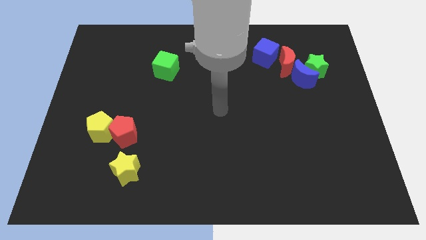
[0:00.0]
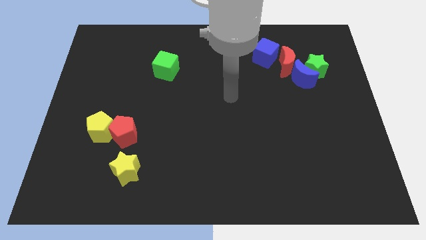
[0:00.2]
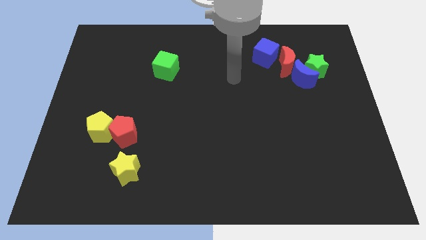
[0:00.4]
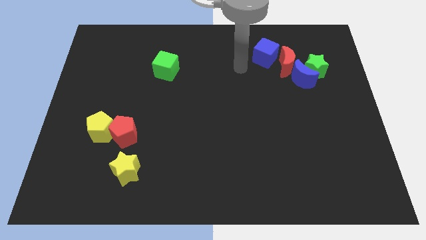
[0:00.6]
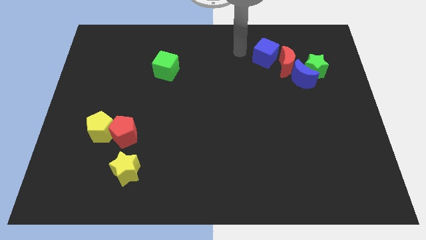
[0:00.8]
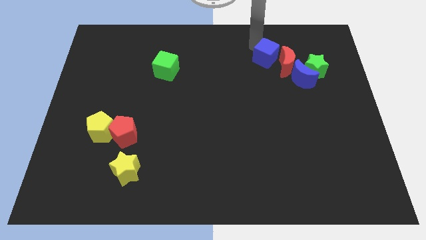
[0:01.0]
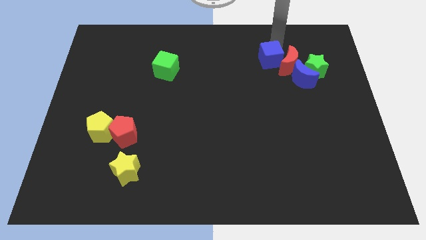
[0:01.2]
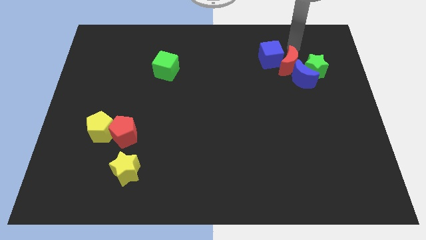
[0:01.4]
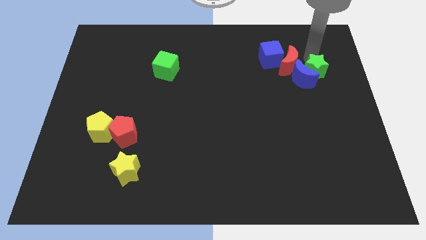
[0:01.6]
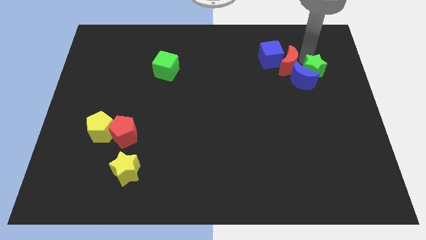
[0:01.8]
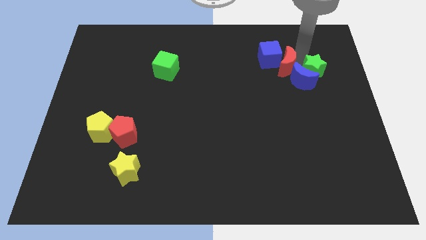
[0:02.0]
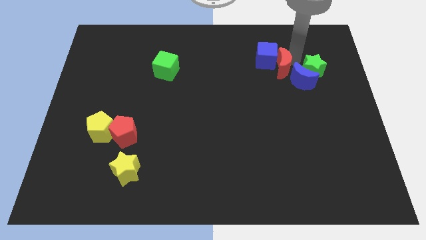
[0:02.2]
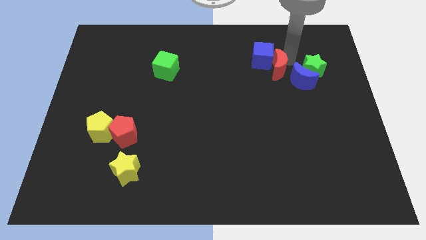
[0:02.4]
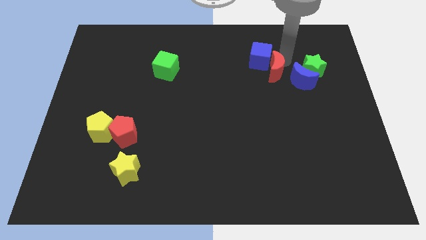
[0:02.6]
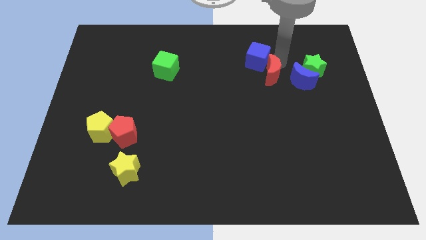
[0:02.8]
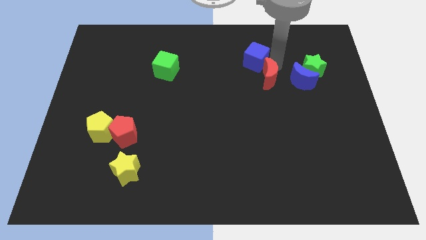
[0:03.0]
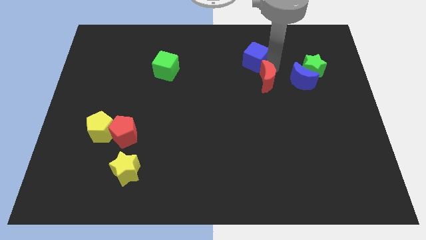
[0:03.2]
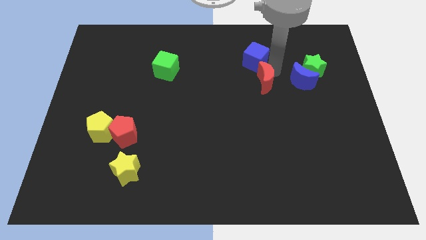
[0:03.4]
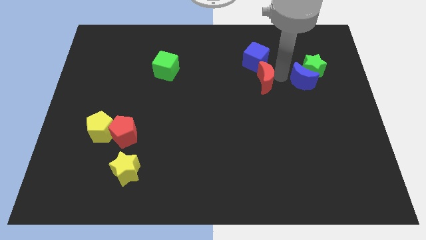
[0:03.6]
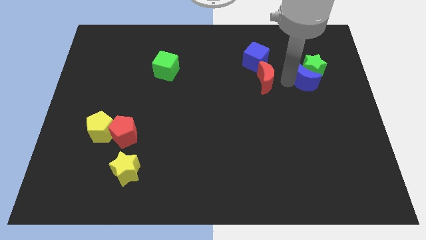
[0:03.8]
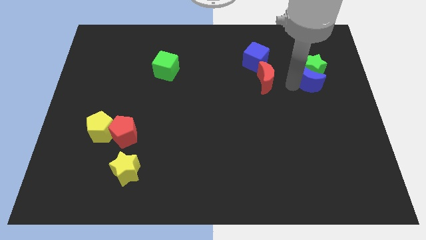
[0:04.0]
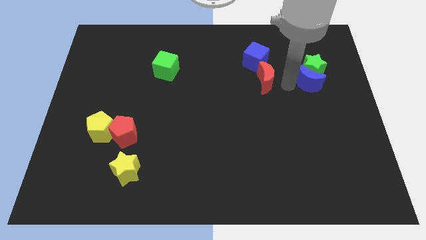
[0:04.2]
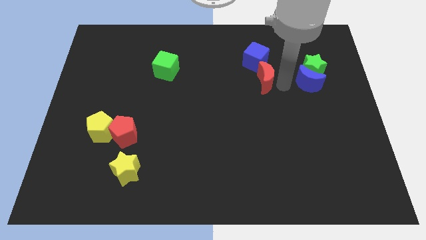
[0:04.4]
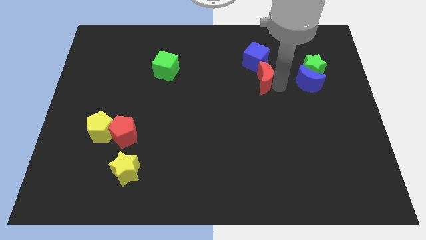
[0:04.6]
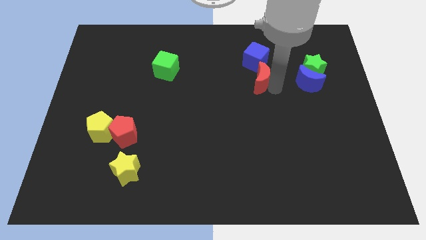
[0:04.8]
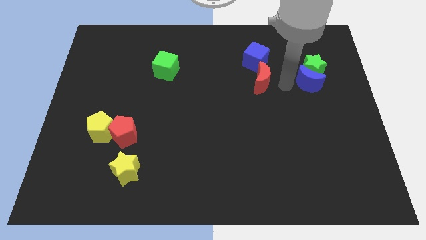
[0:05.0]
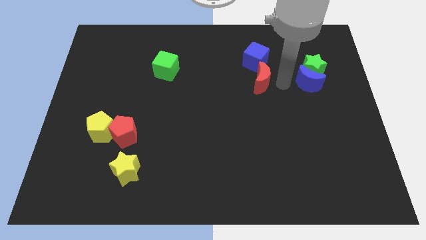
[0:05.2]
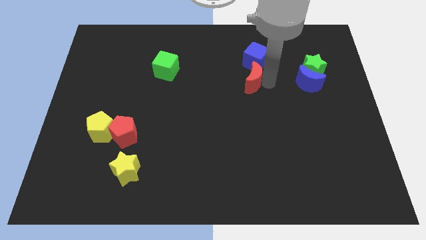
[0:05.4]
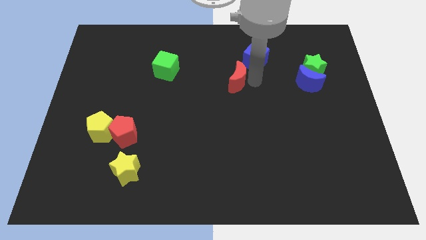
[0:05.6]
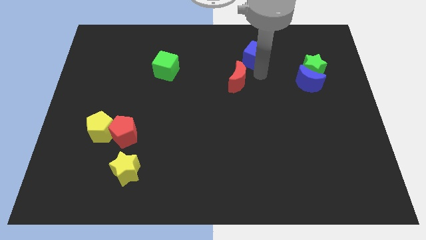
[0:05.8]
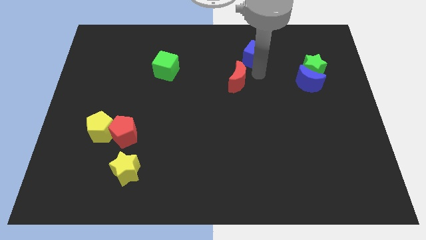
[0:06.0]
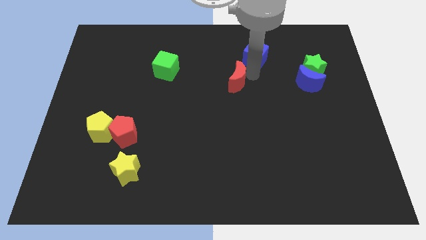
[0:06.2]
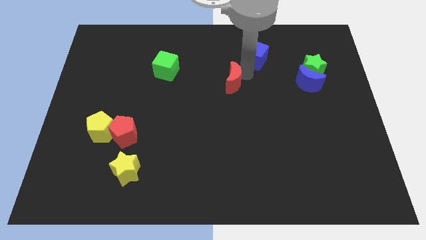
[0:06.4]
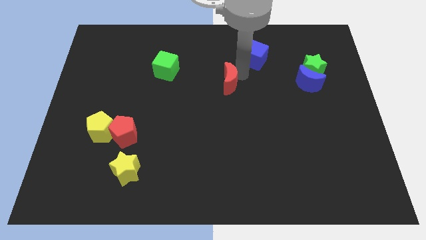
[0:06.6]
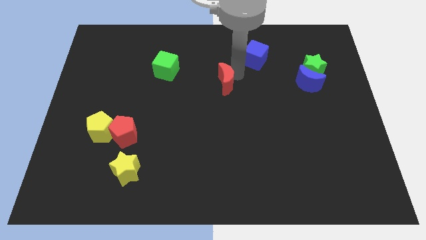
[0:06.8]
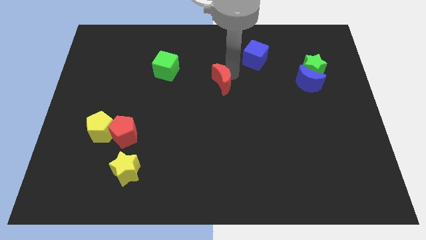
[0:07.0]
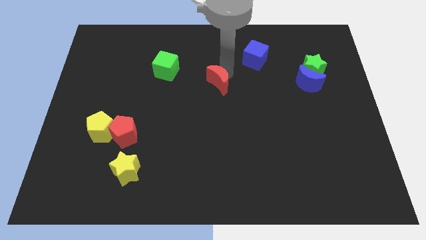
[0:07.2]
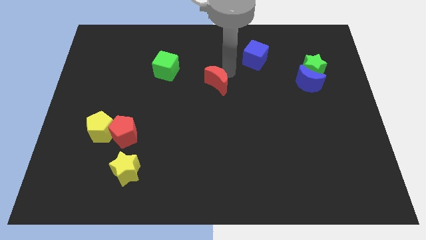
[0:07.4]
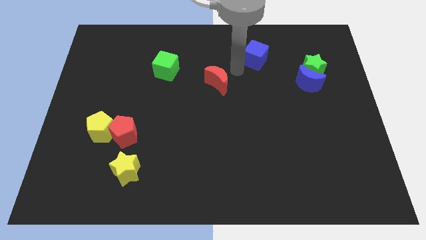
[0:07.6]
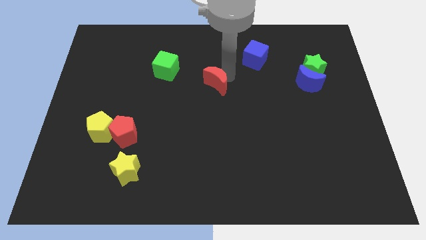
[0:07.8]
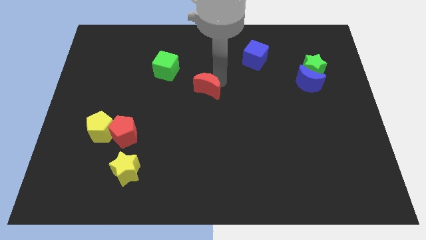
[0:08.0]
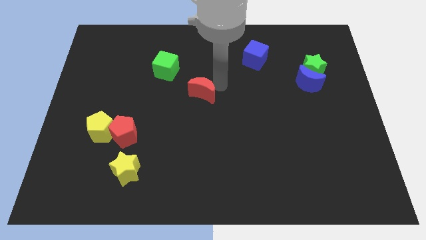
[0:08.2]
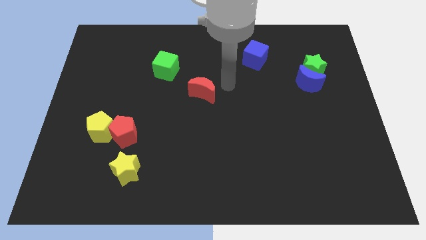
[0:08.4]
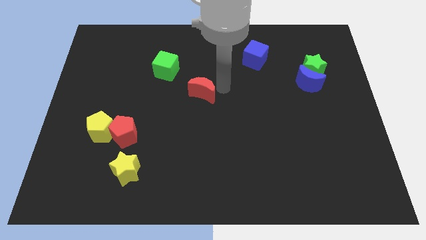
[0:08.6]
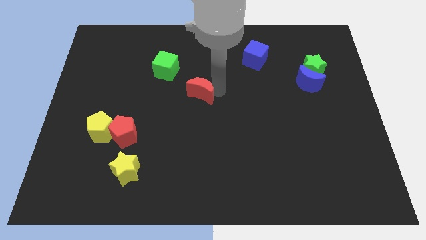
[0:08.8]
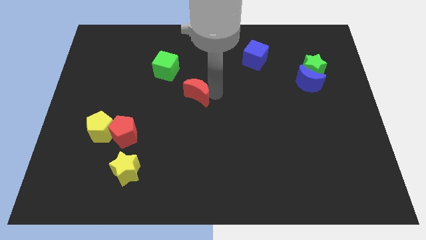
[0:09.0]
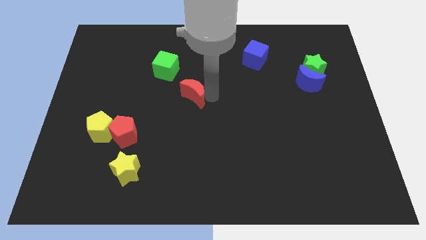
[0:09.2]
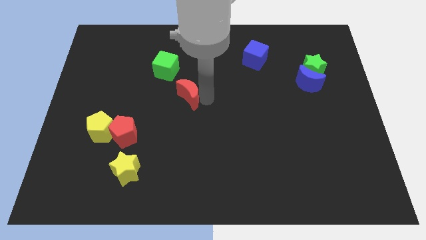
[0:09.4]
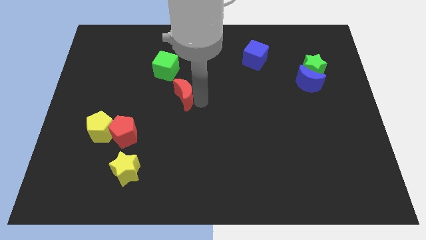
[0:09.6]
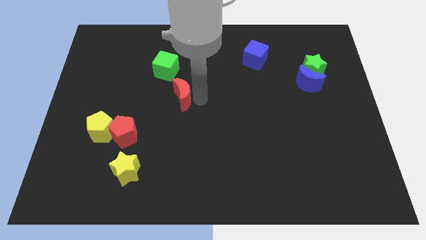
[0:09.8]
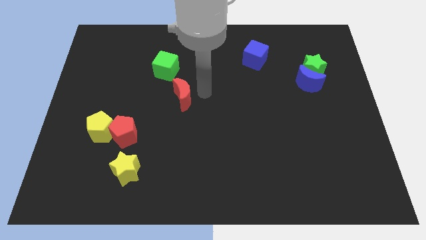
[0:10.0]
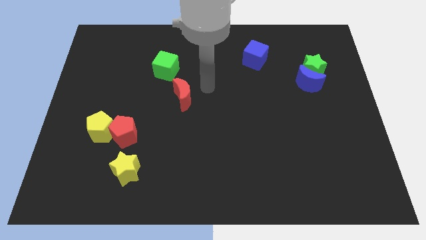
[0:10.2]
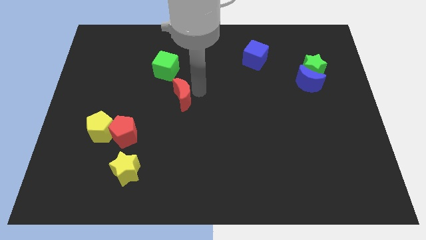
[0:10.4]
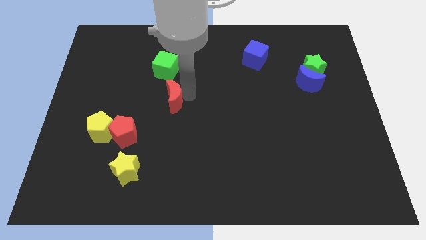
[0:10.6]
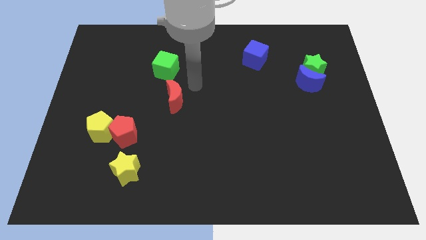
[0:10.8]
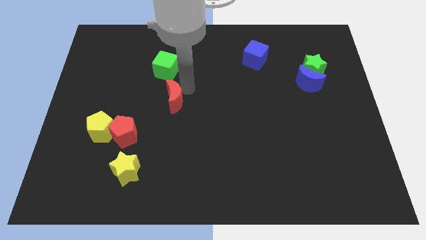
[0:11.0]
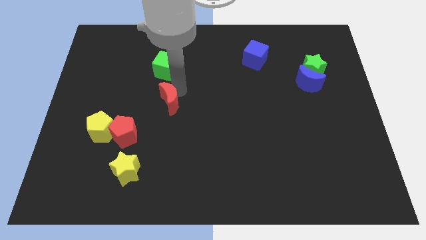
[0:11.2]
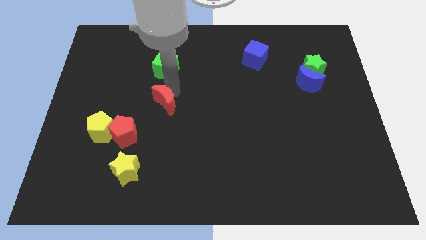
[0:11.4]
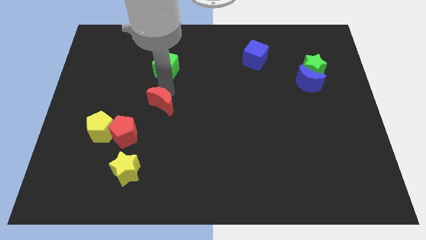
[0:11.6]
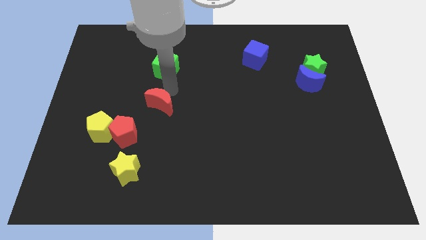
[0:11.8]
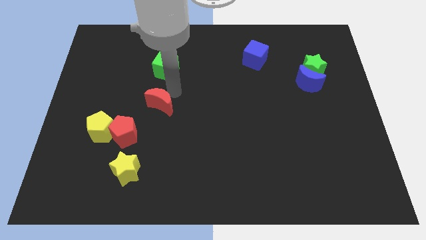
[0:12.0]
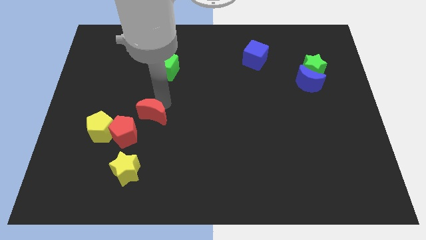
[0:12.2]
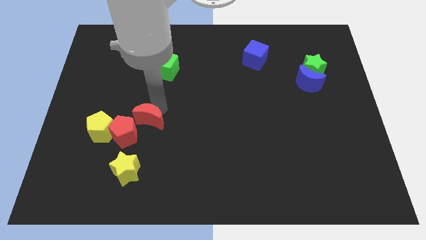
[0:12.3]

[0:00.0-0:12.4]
push the red moon to the top of the yellow star

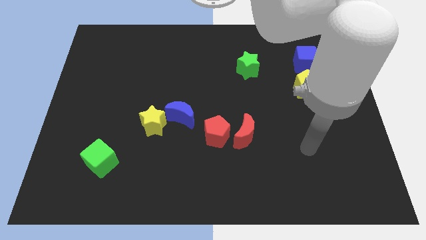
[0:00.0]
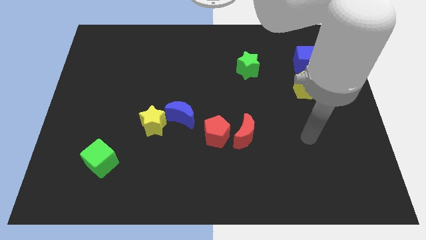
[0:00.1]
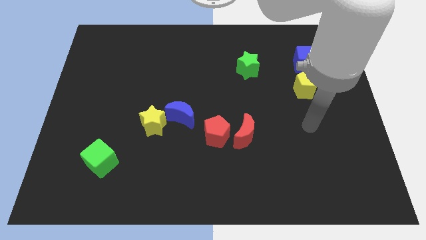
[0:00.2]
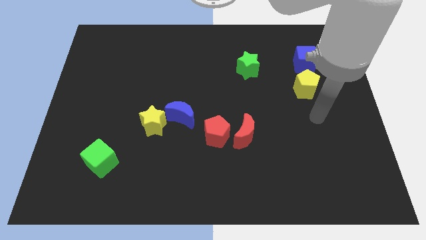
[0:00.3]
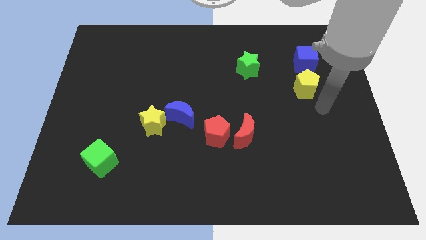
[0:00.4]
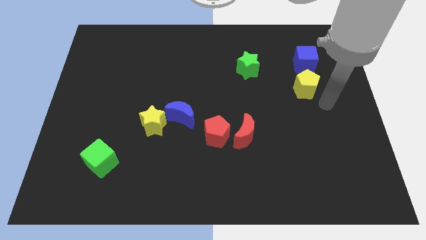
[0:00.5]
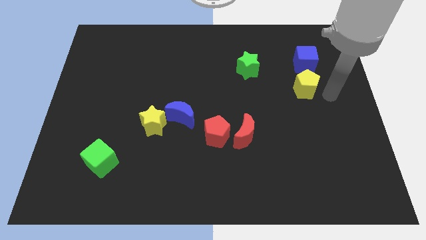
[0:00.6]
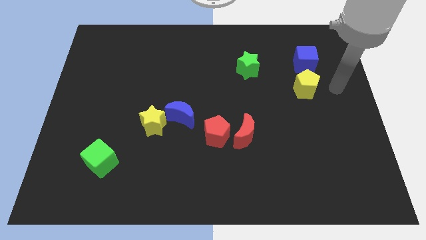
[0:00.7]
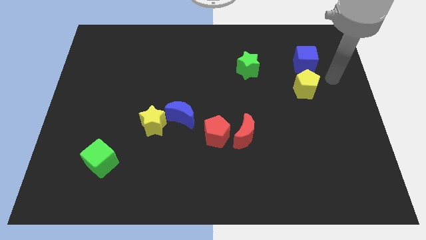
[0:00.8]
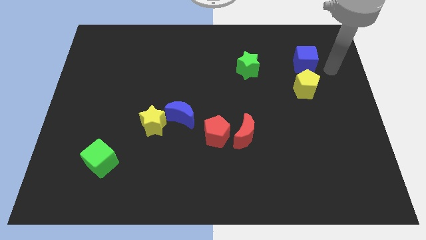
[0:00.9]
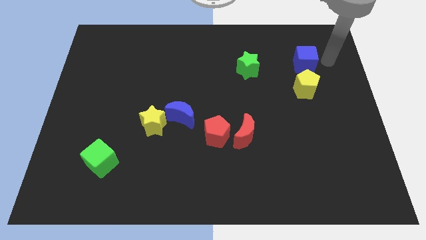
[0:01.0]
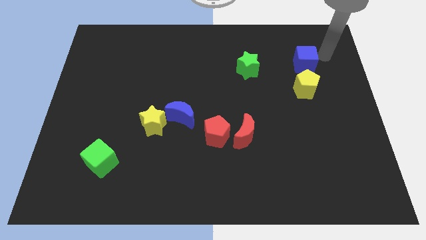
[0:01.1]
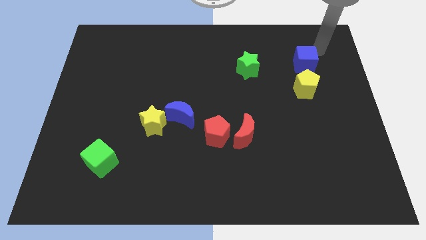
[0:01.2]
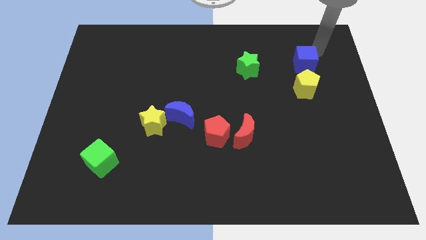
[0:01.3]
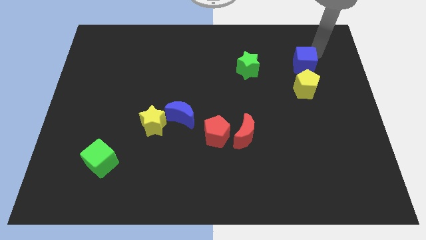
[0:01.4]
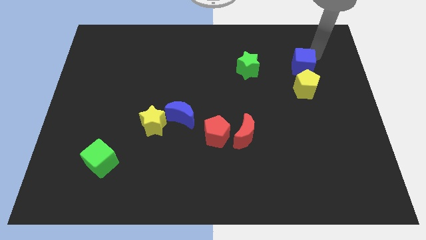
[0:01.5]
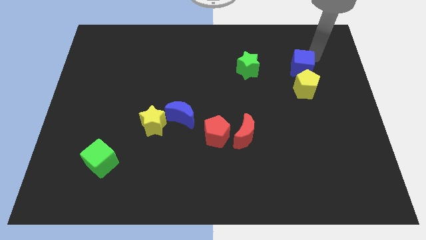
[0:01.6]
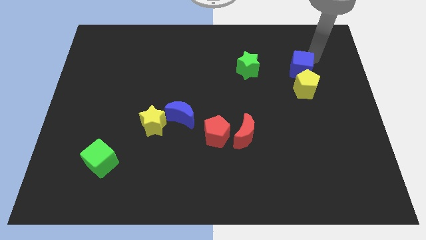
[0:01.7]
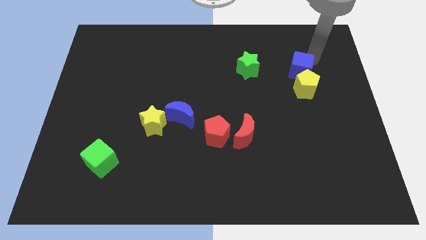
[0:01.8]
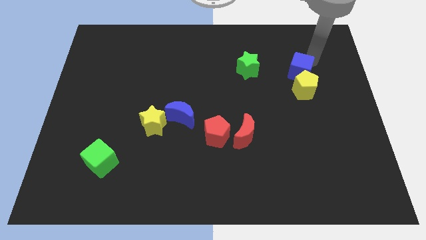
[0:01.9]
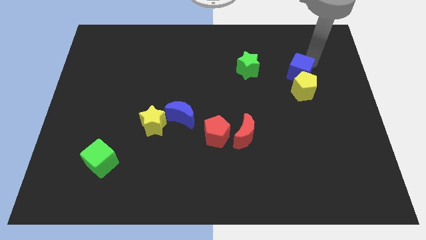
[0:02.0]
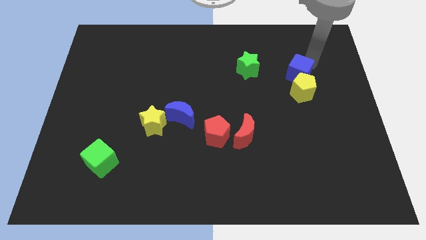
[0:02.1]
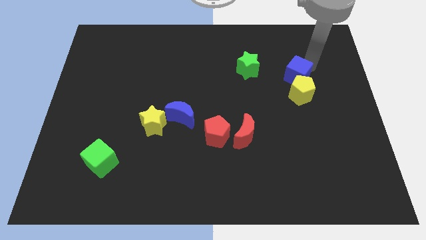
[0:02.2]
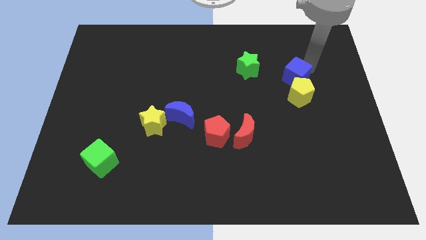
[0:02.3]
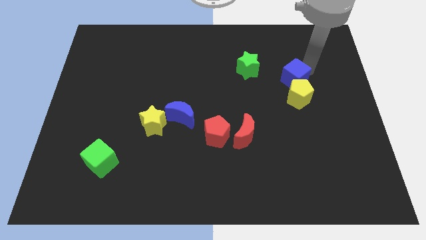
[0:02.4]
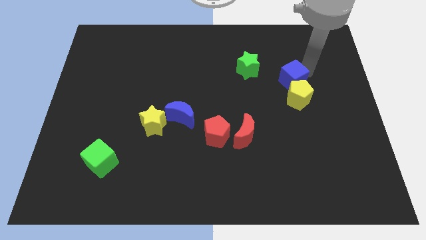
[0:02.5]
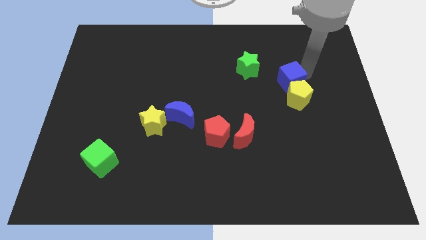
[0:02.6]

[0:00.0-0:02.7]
move the blue cube diagonally down and to the right of the green star
